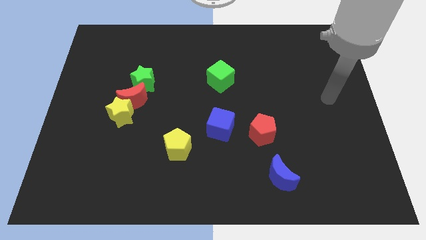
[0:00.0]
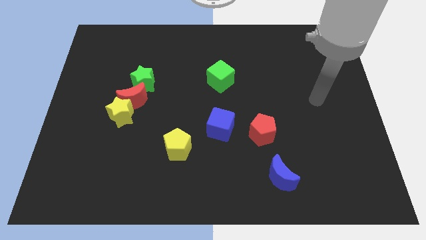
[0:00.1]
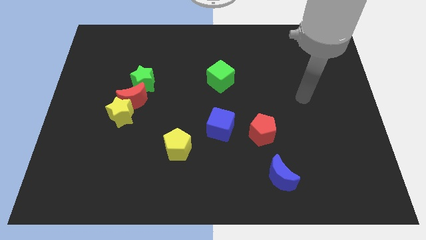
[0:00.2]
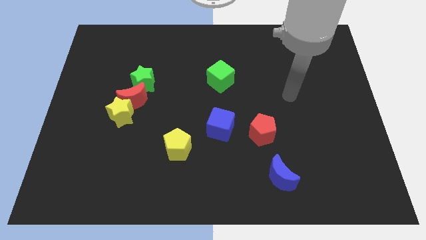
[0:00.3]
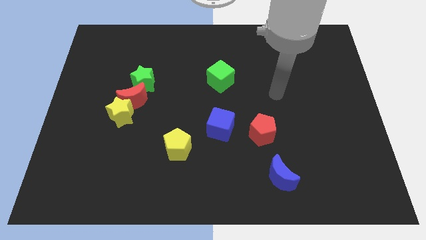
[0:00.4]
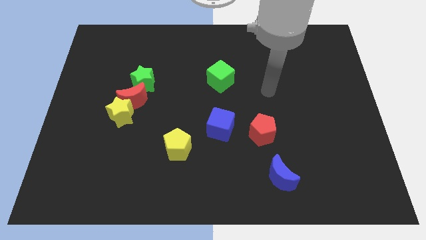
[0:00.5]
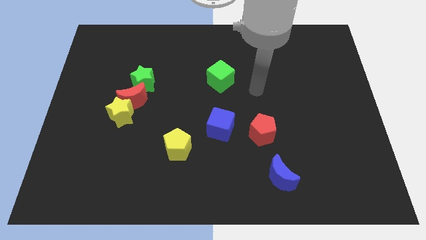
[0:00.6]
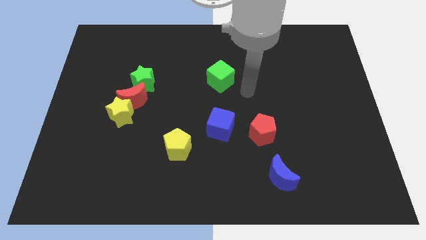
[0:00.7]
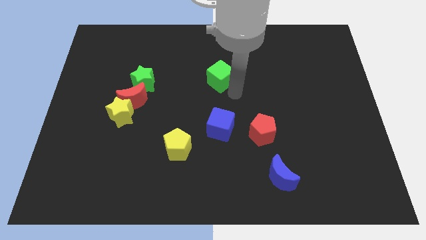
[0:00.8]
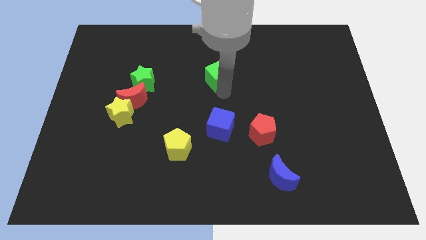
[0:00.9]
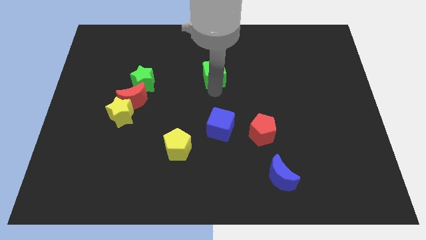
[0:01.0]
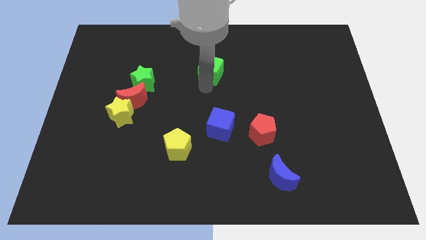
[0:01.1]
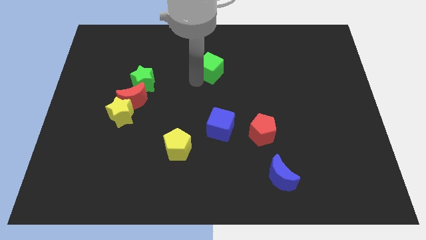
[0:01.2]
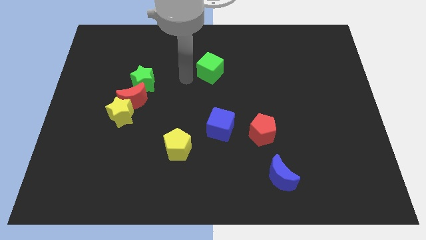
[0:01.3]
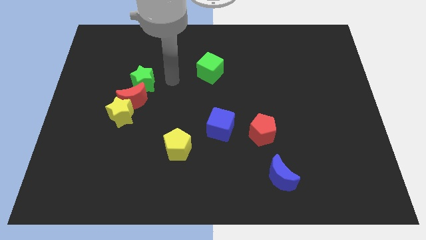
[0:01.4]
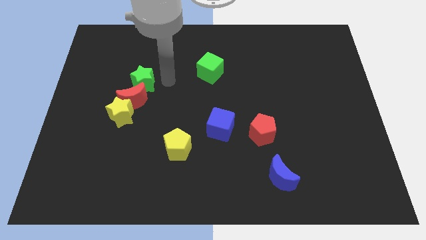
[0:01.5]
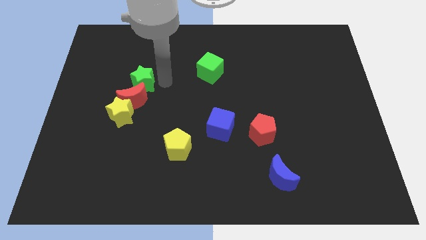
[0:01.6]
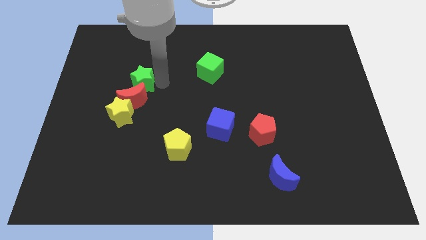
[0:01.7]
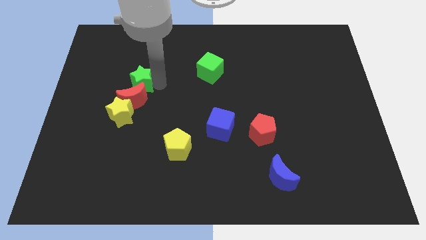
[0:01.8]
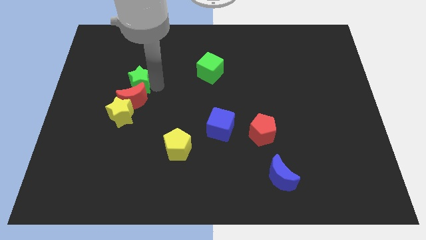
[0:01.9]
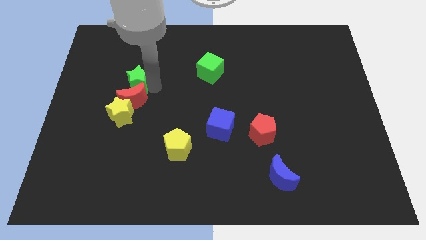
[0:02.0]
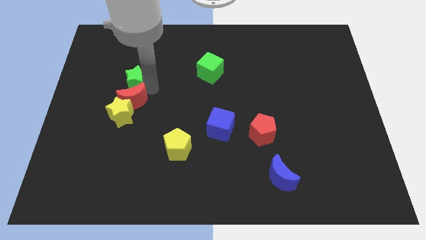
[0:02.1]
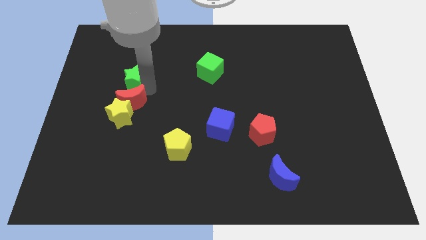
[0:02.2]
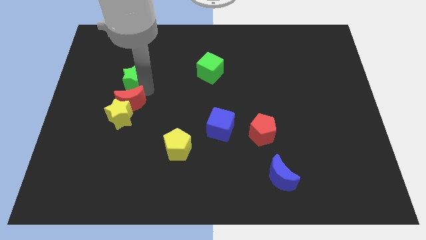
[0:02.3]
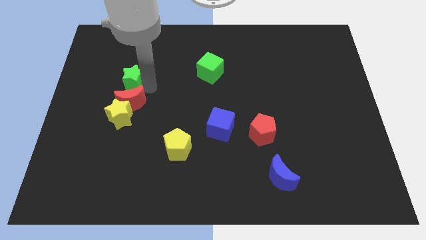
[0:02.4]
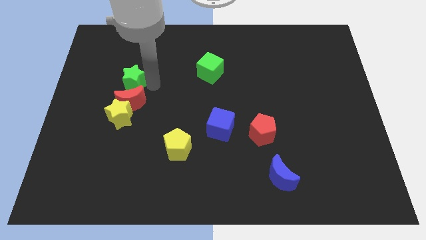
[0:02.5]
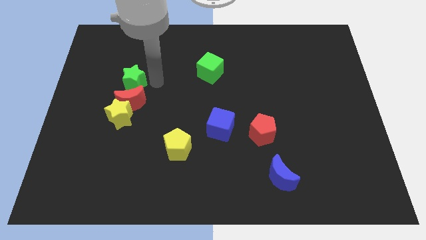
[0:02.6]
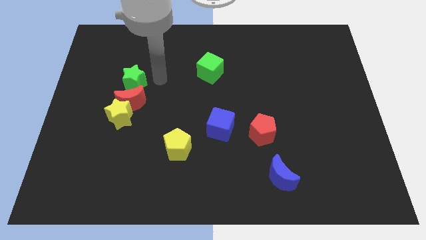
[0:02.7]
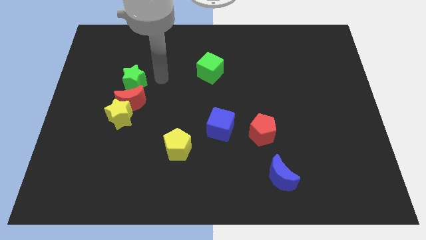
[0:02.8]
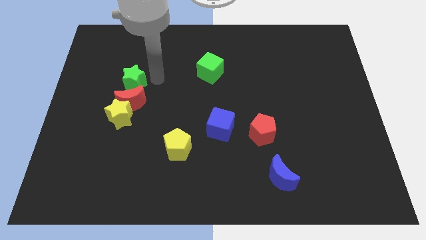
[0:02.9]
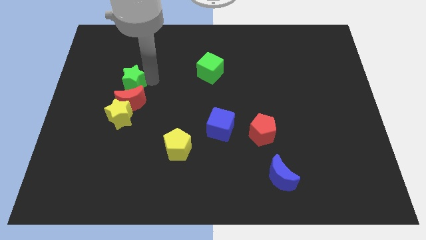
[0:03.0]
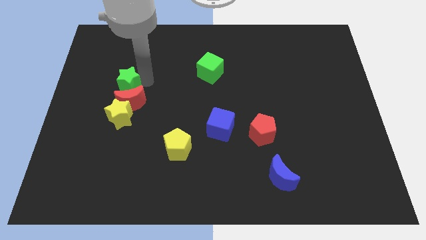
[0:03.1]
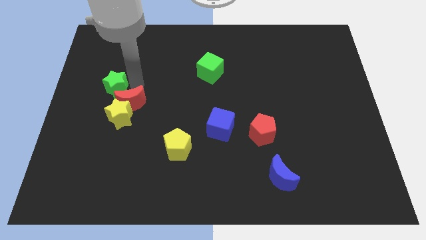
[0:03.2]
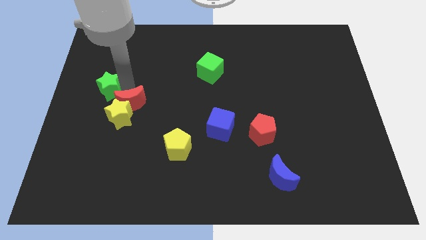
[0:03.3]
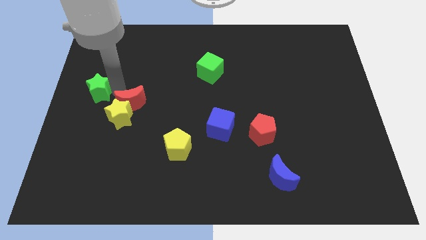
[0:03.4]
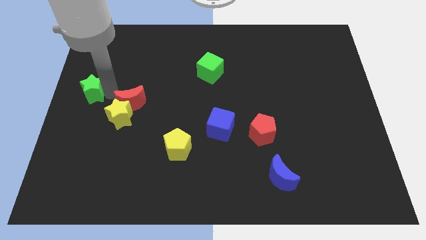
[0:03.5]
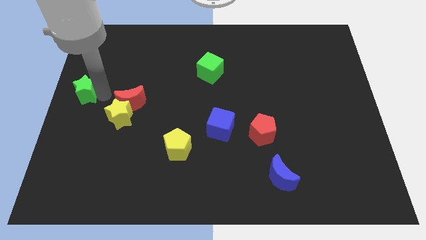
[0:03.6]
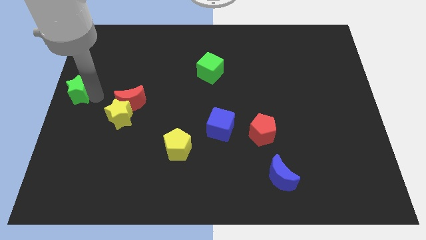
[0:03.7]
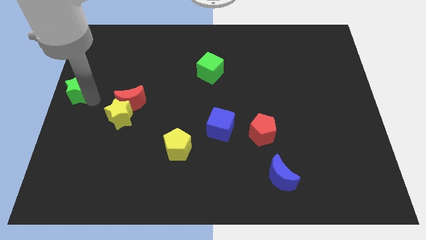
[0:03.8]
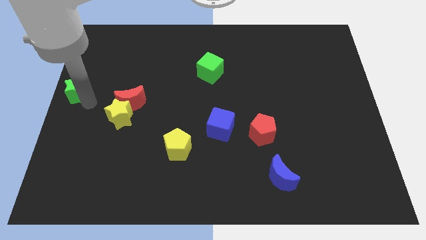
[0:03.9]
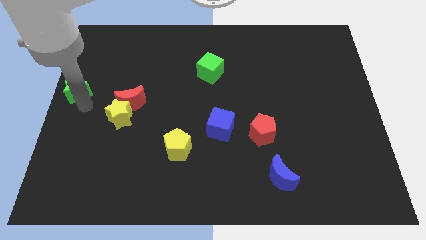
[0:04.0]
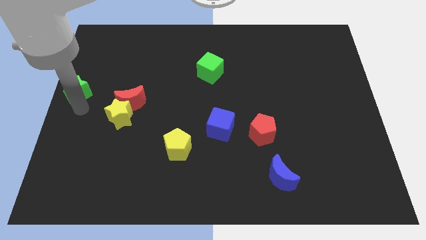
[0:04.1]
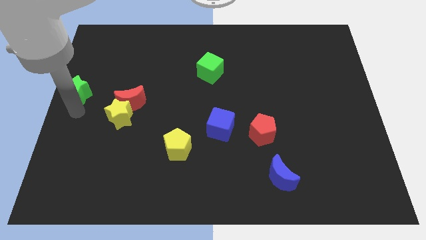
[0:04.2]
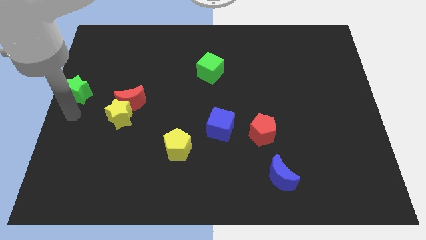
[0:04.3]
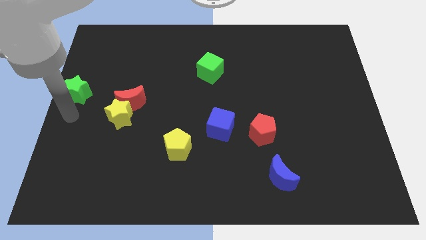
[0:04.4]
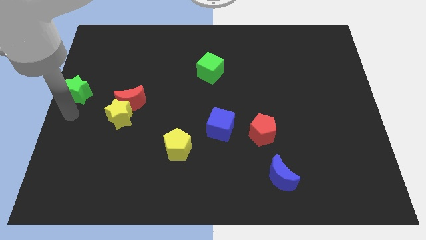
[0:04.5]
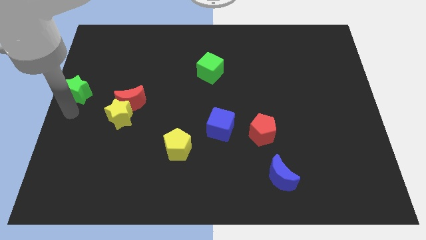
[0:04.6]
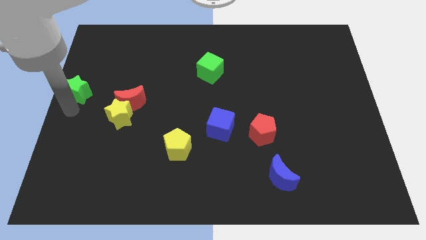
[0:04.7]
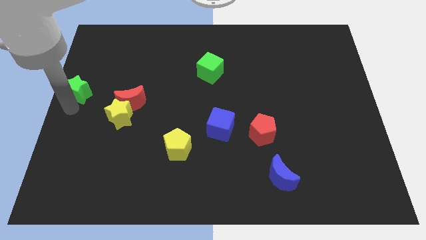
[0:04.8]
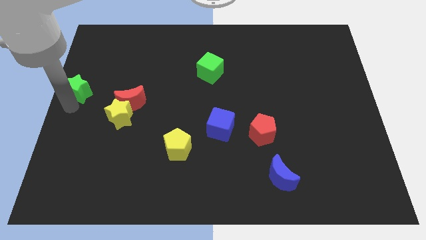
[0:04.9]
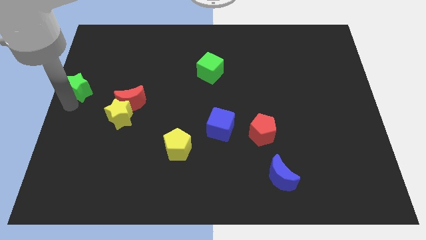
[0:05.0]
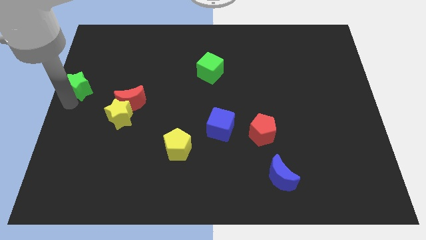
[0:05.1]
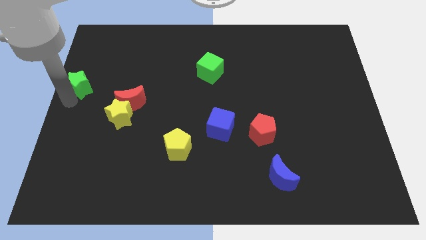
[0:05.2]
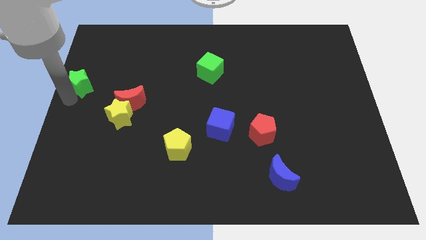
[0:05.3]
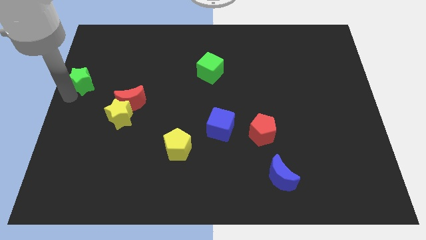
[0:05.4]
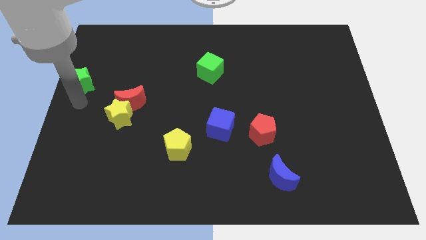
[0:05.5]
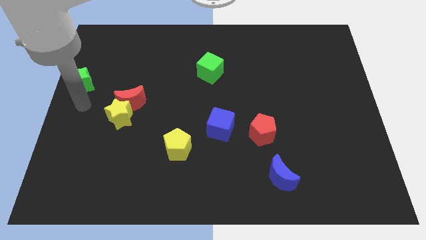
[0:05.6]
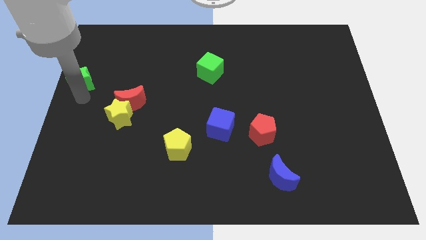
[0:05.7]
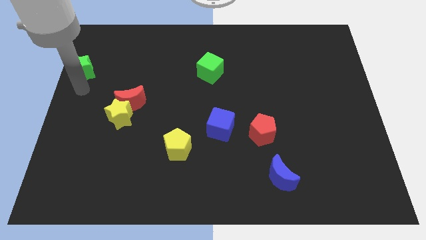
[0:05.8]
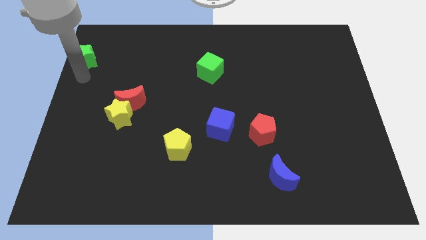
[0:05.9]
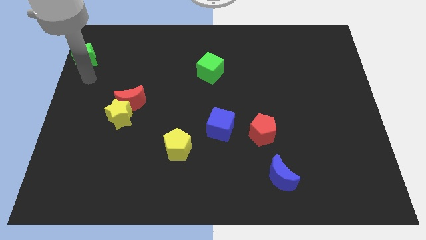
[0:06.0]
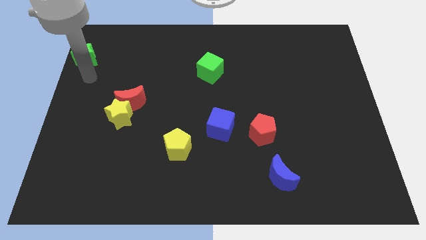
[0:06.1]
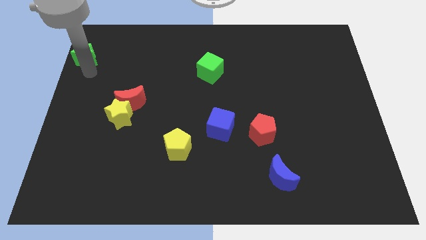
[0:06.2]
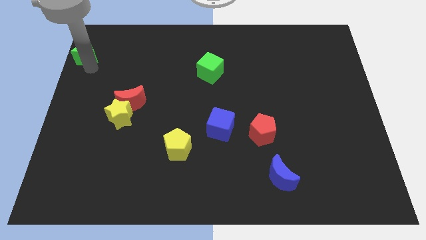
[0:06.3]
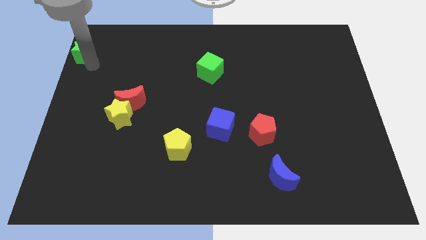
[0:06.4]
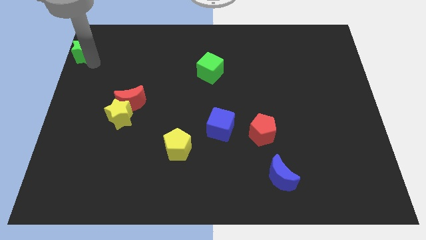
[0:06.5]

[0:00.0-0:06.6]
push the green star to the top left corner

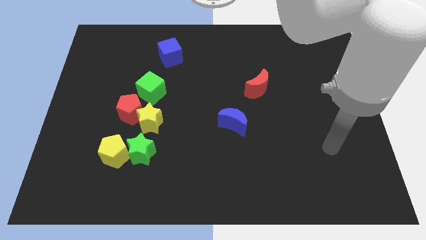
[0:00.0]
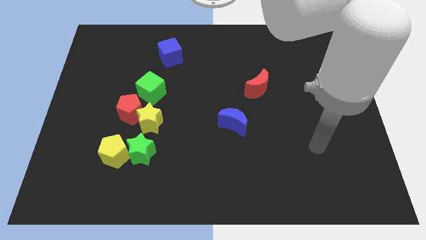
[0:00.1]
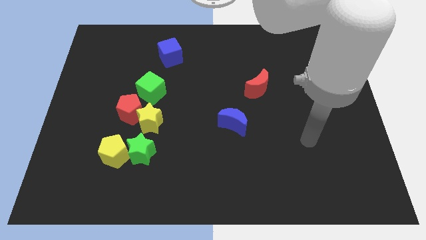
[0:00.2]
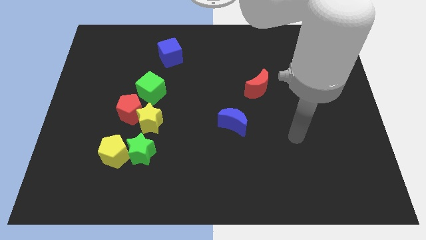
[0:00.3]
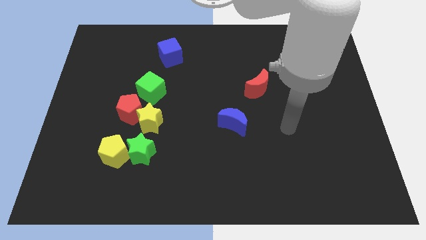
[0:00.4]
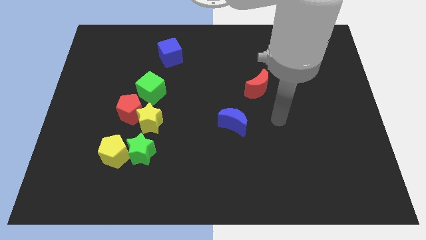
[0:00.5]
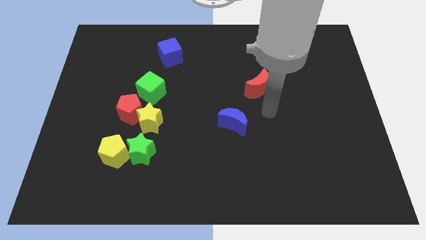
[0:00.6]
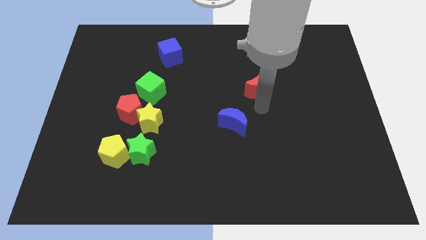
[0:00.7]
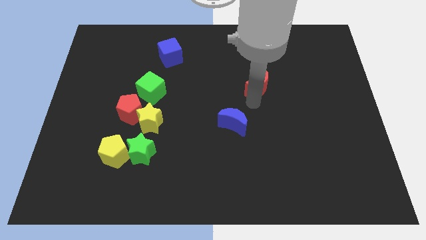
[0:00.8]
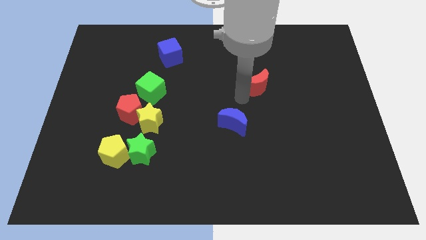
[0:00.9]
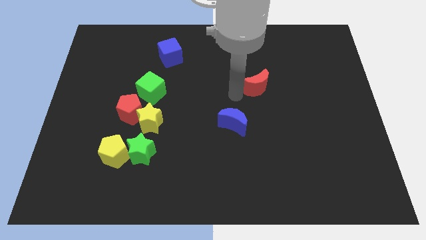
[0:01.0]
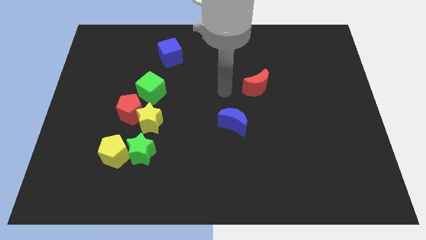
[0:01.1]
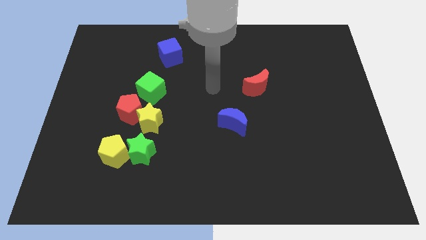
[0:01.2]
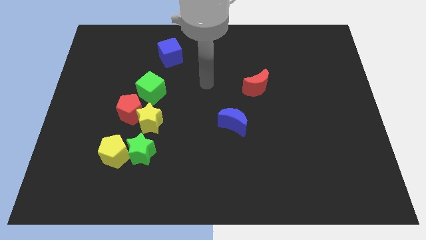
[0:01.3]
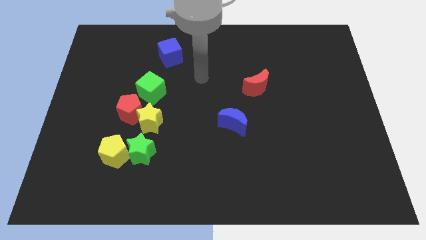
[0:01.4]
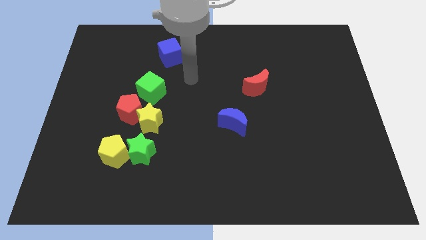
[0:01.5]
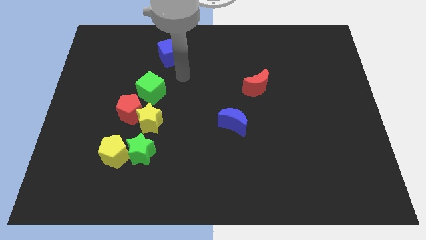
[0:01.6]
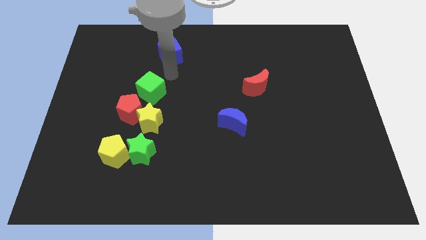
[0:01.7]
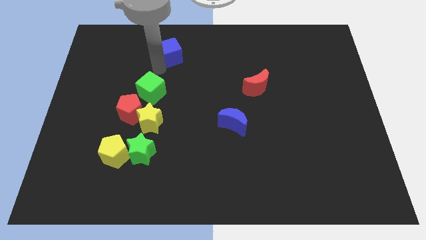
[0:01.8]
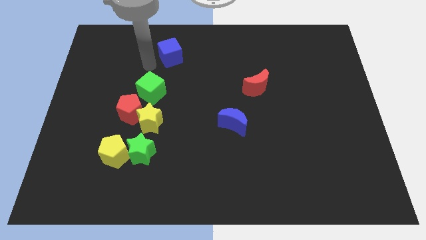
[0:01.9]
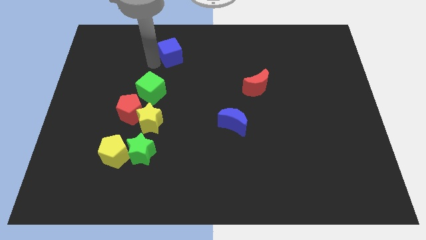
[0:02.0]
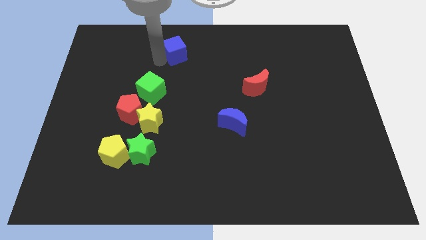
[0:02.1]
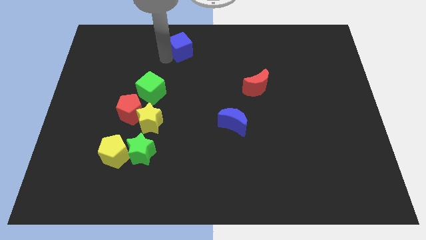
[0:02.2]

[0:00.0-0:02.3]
move the blue cube to the top
